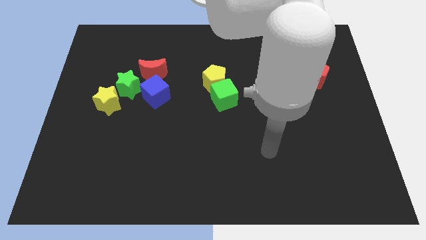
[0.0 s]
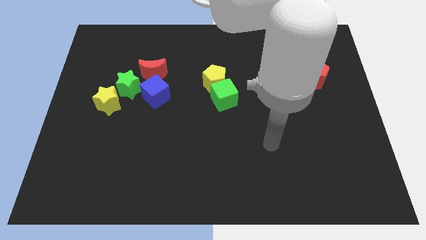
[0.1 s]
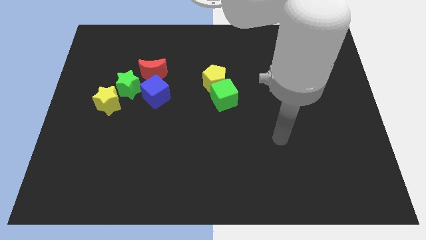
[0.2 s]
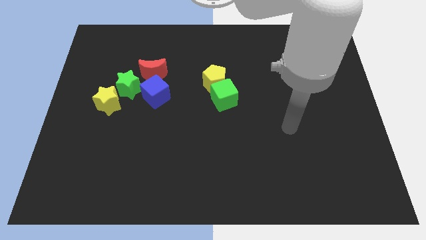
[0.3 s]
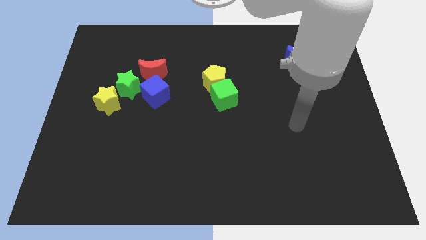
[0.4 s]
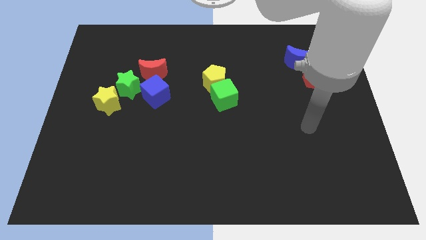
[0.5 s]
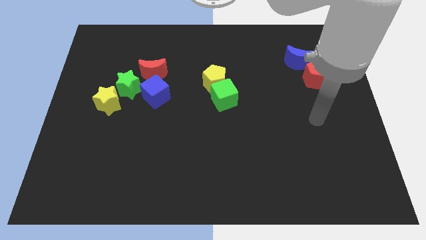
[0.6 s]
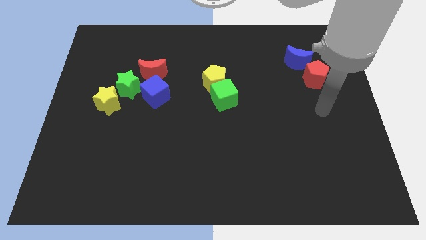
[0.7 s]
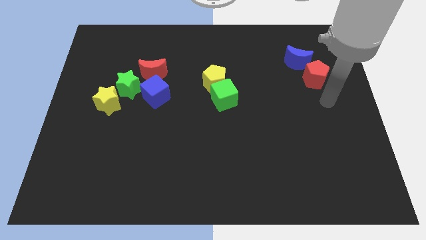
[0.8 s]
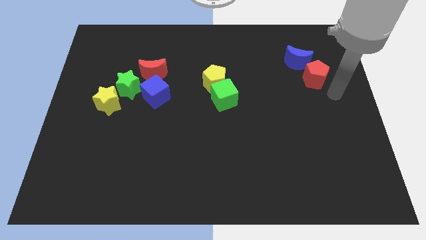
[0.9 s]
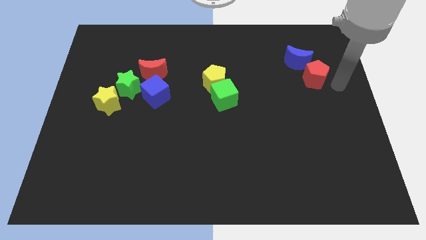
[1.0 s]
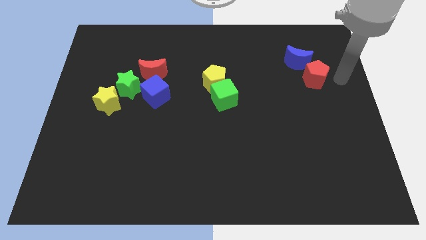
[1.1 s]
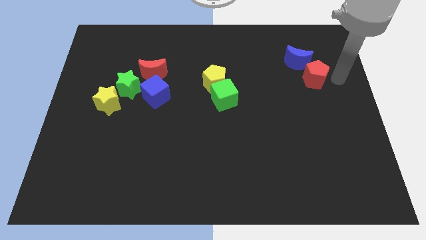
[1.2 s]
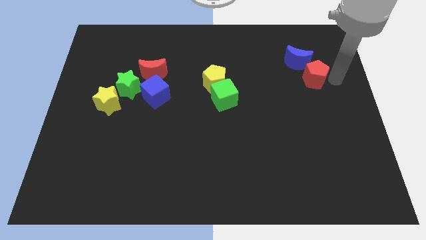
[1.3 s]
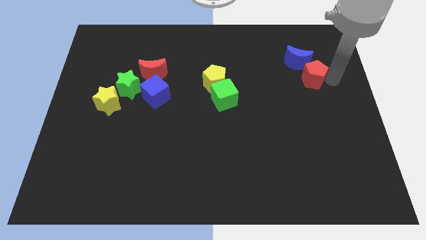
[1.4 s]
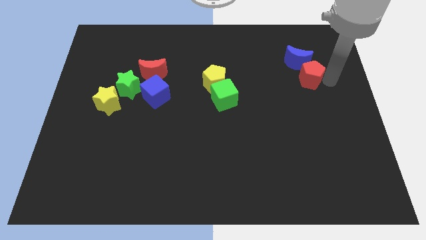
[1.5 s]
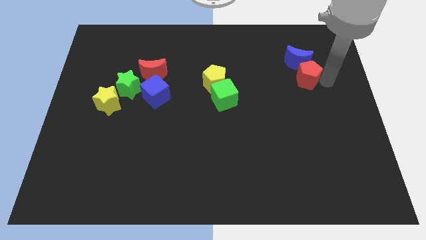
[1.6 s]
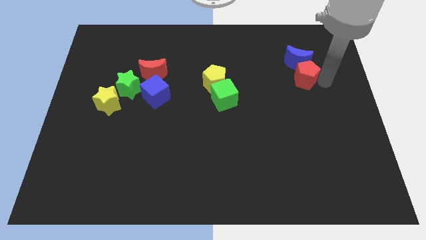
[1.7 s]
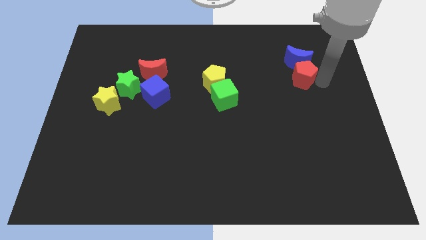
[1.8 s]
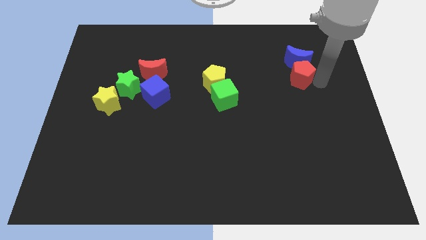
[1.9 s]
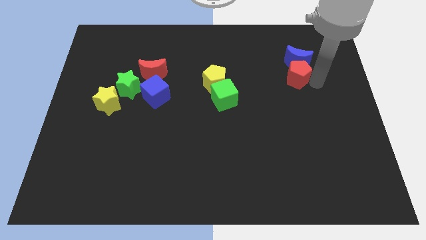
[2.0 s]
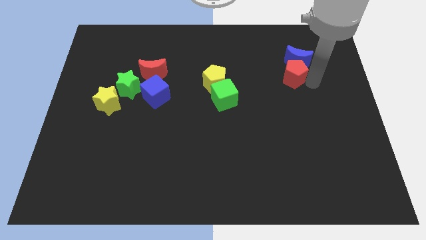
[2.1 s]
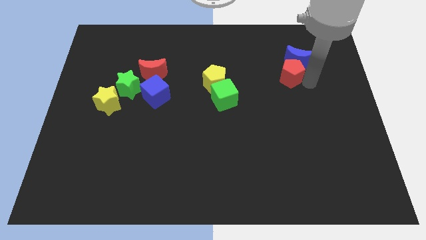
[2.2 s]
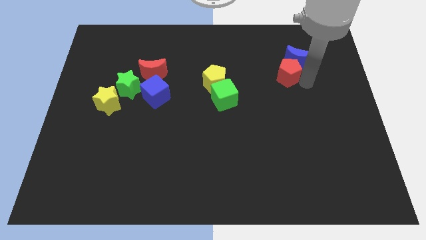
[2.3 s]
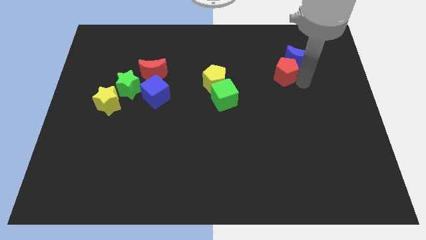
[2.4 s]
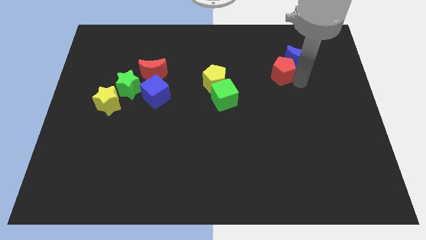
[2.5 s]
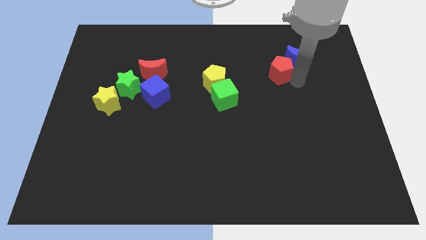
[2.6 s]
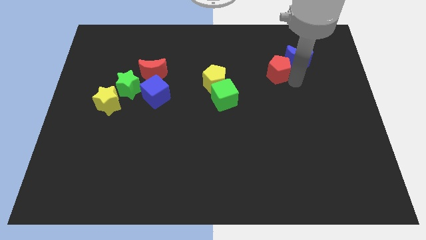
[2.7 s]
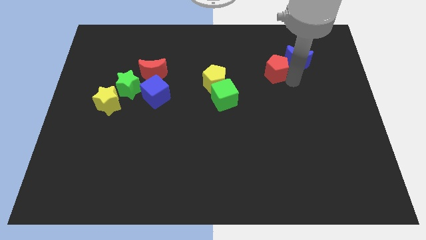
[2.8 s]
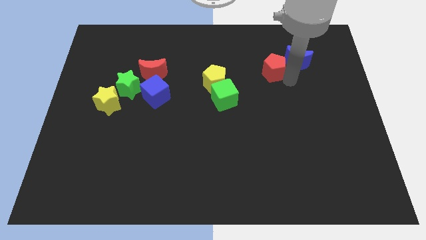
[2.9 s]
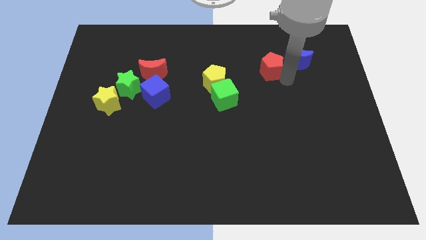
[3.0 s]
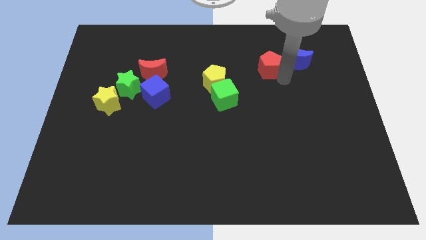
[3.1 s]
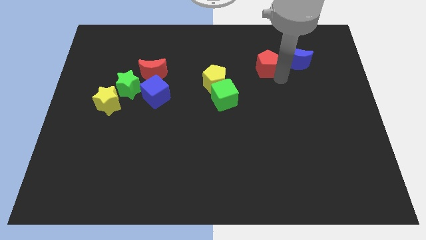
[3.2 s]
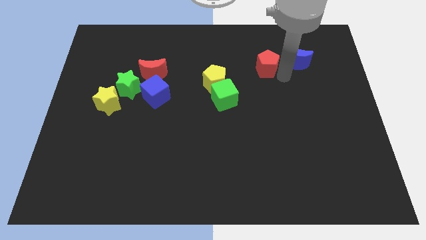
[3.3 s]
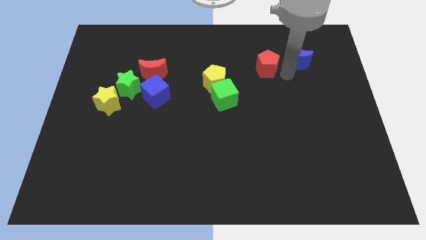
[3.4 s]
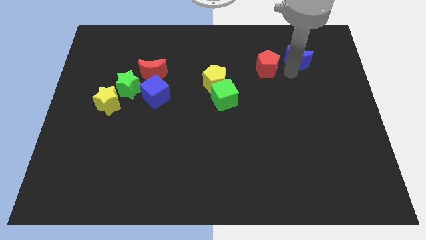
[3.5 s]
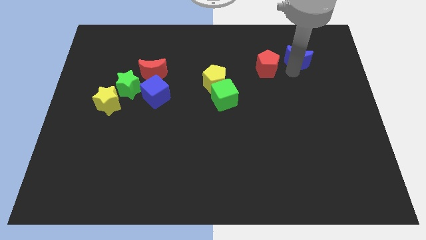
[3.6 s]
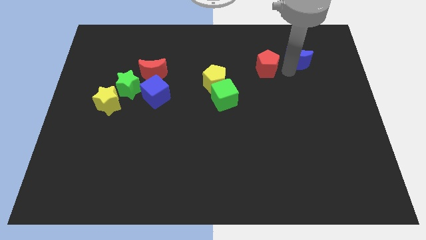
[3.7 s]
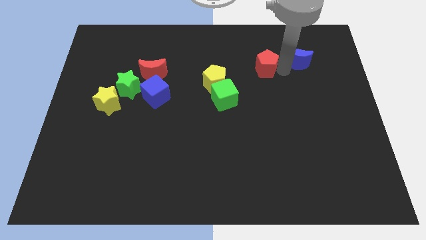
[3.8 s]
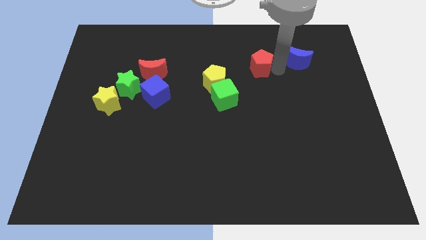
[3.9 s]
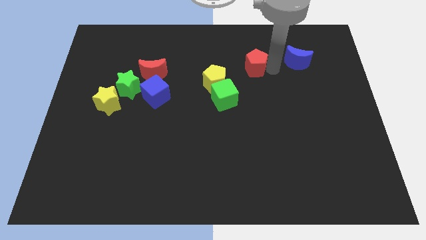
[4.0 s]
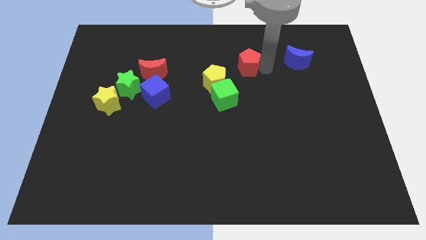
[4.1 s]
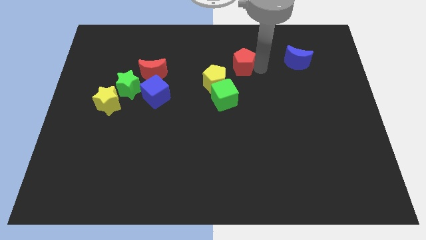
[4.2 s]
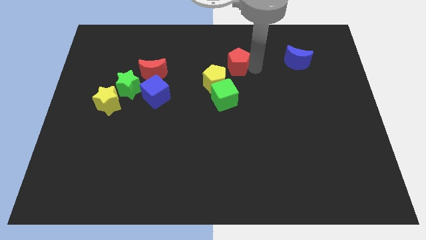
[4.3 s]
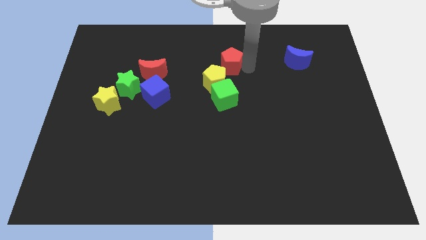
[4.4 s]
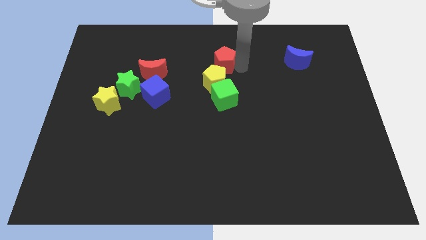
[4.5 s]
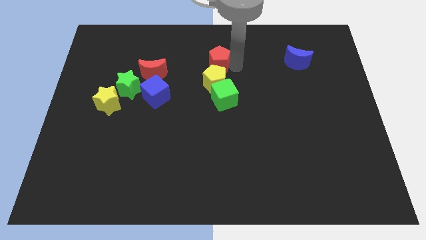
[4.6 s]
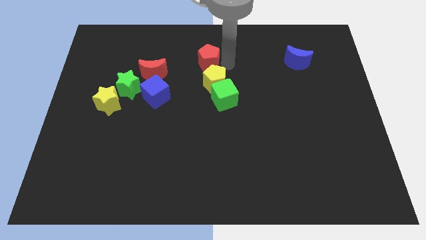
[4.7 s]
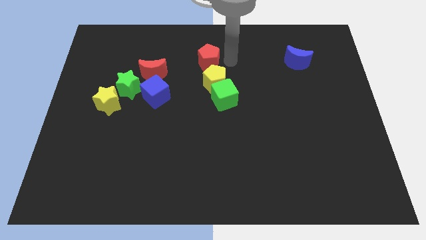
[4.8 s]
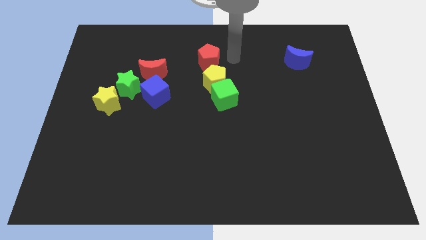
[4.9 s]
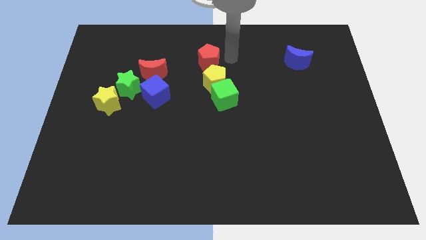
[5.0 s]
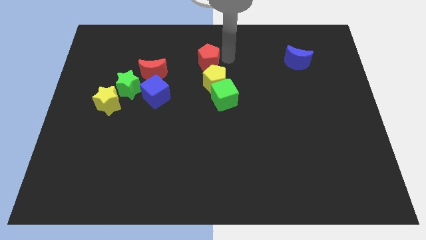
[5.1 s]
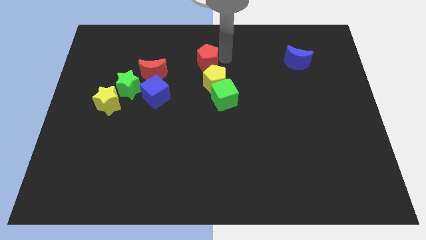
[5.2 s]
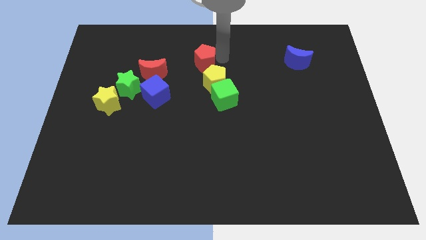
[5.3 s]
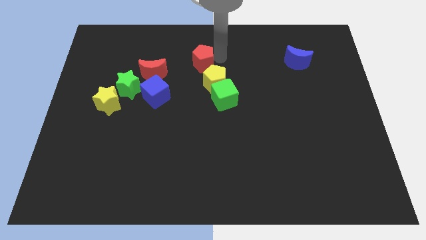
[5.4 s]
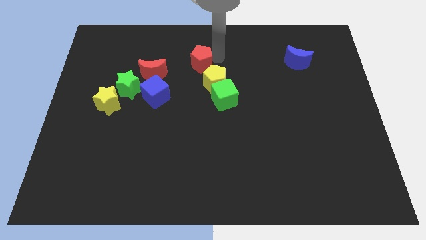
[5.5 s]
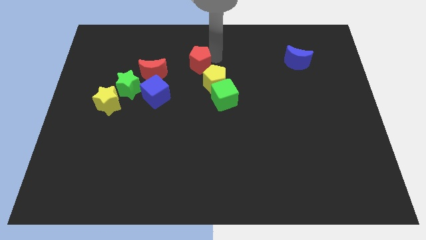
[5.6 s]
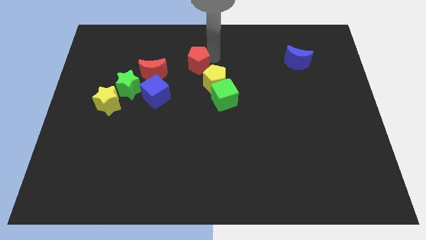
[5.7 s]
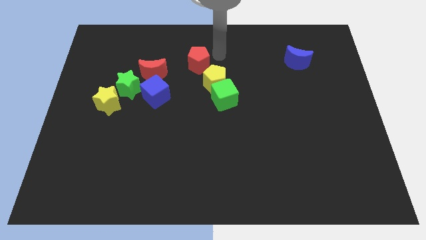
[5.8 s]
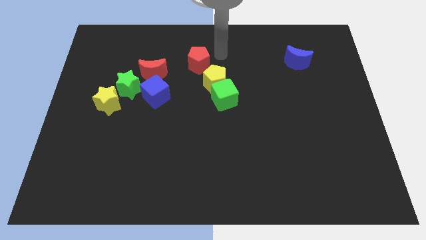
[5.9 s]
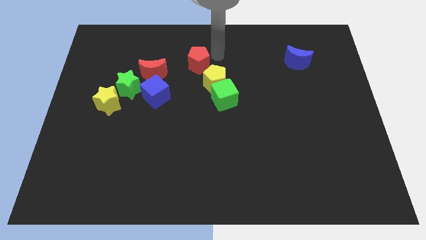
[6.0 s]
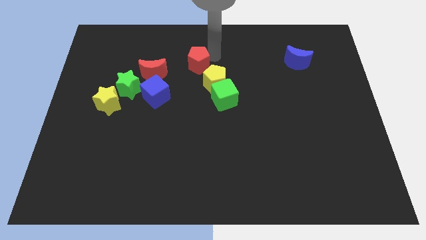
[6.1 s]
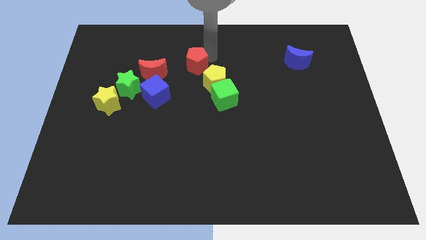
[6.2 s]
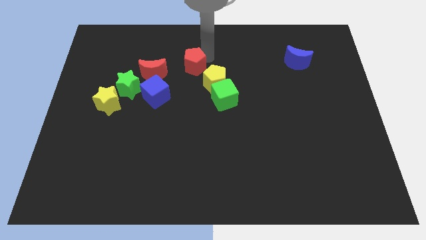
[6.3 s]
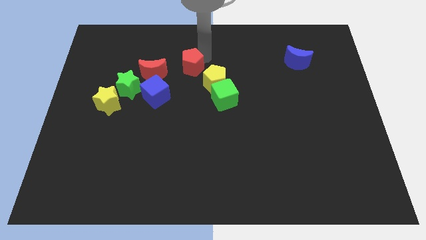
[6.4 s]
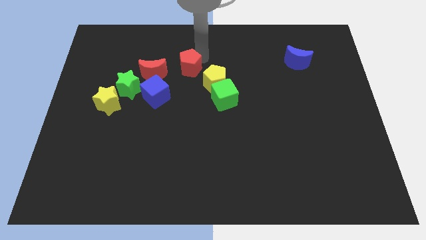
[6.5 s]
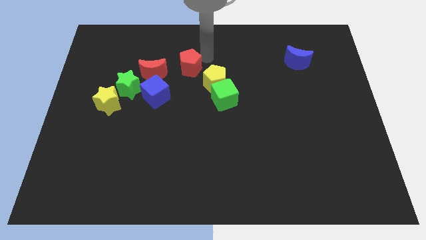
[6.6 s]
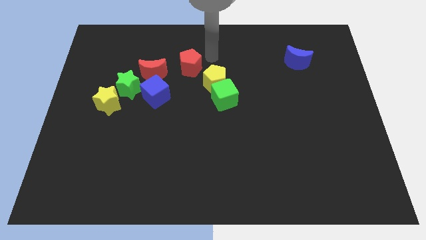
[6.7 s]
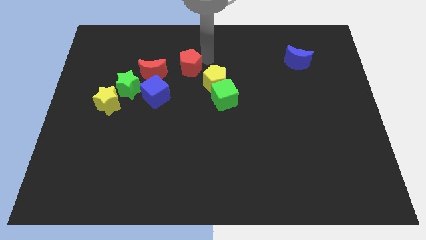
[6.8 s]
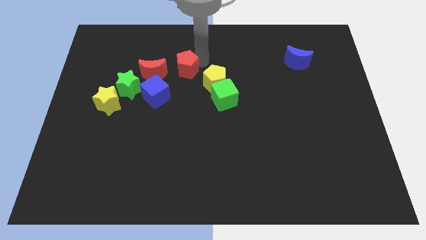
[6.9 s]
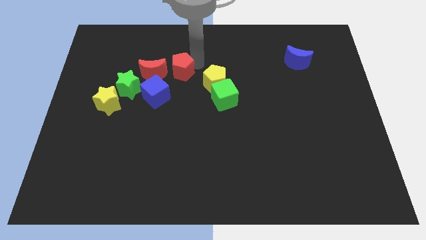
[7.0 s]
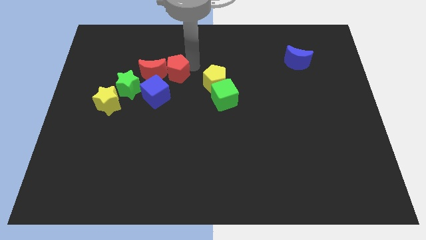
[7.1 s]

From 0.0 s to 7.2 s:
move the red pentagon to the red moon
